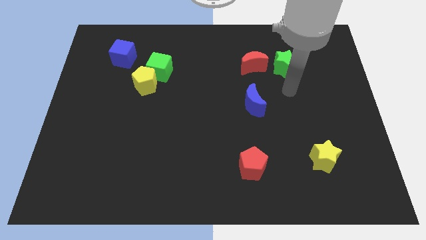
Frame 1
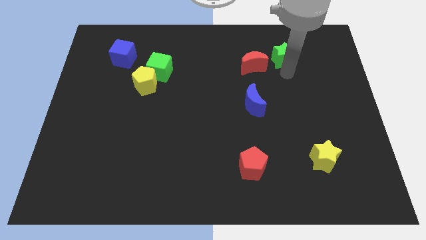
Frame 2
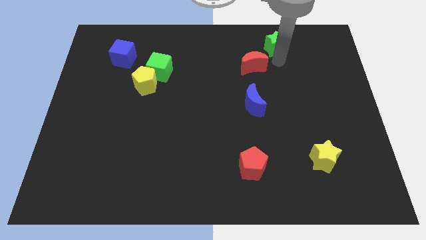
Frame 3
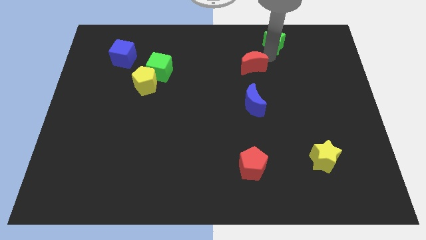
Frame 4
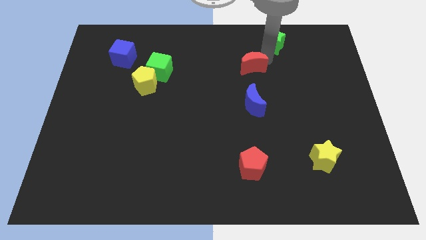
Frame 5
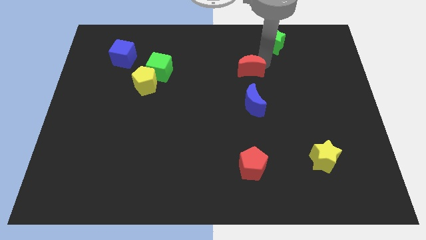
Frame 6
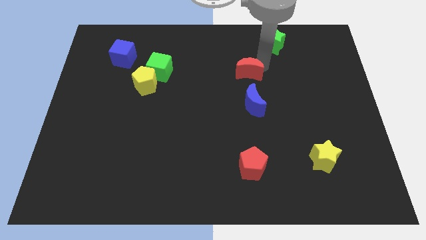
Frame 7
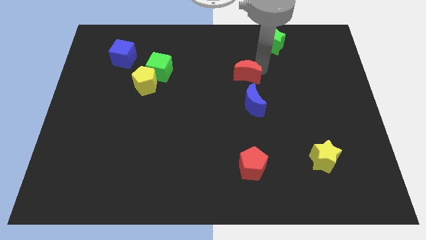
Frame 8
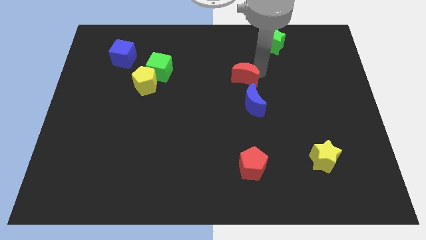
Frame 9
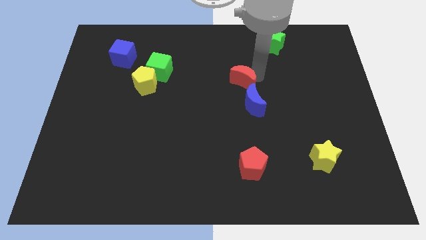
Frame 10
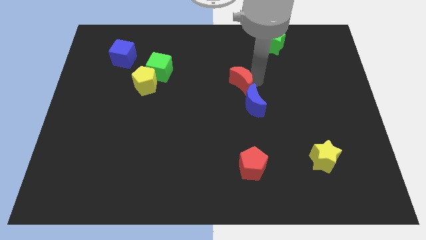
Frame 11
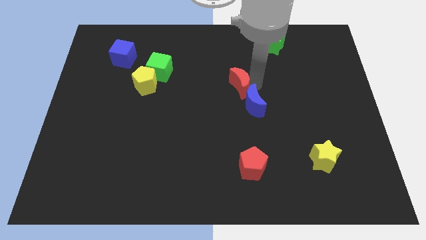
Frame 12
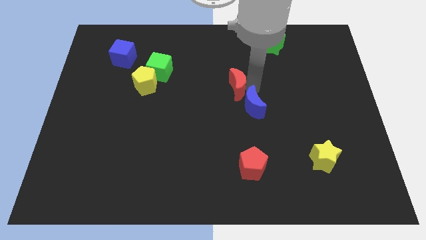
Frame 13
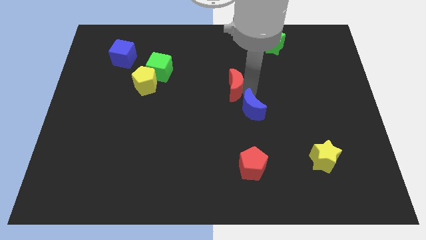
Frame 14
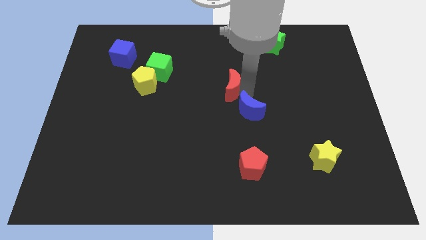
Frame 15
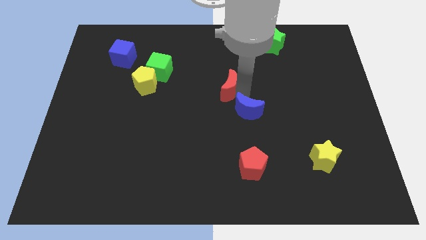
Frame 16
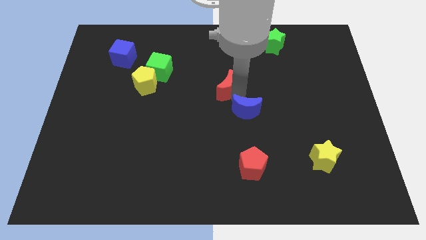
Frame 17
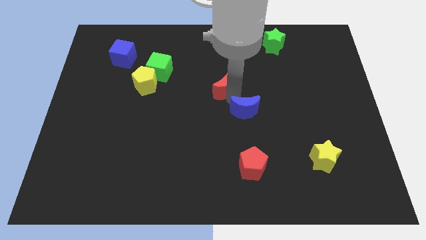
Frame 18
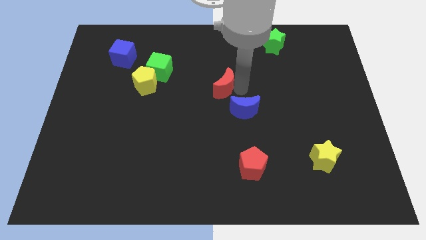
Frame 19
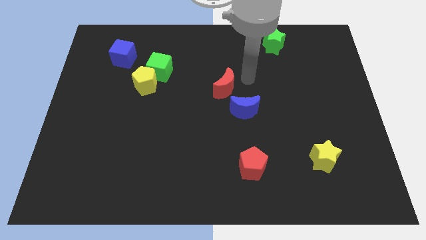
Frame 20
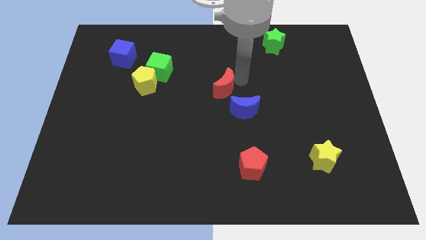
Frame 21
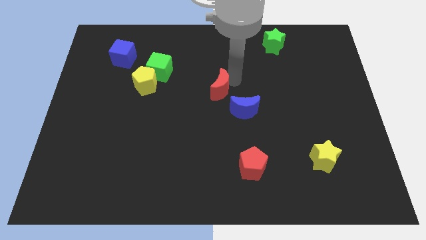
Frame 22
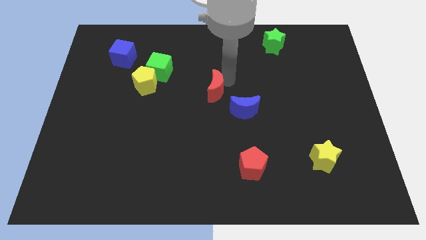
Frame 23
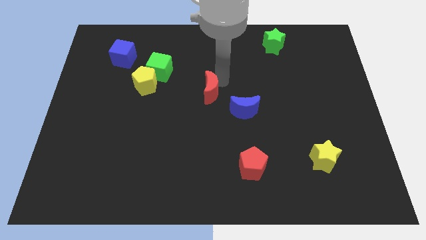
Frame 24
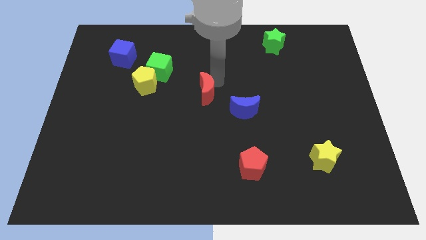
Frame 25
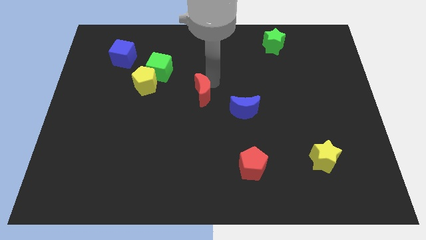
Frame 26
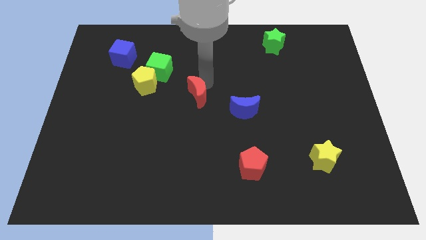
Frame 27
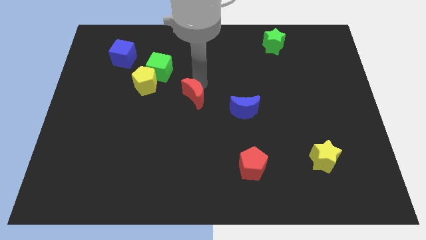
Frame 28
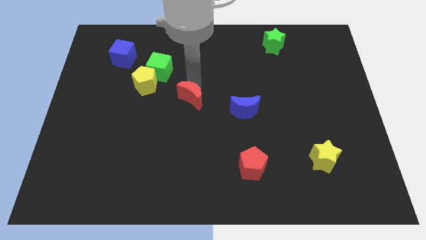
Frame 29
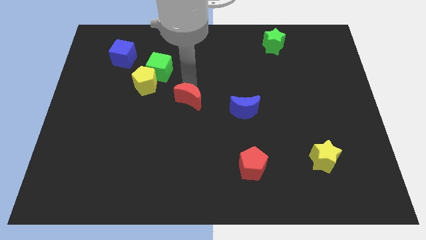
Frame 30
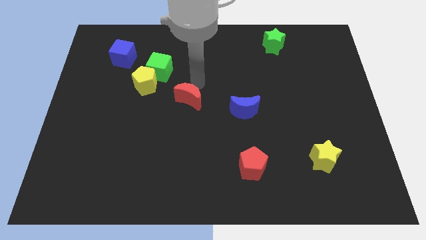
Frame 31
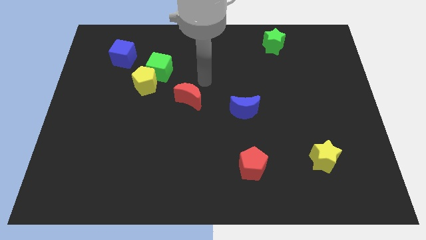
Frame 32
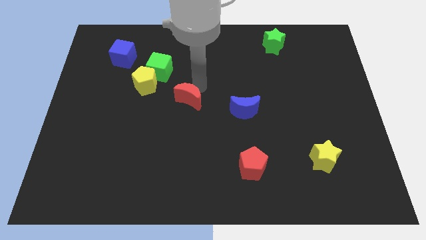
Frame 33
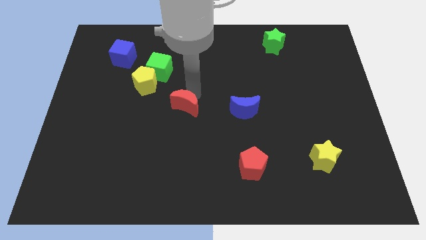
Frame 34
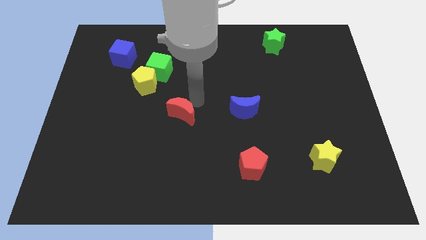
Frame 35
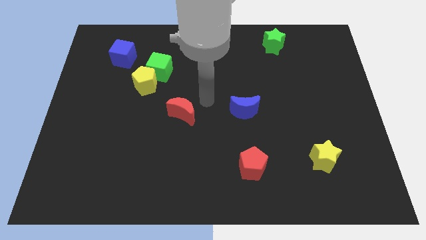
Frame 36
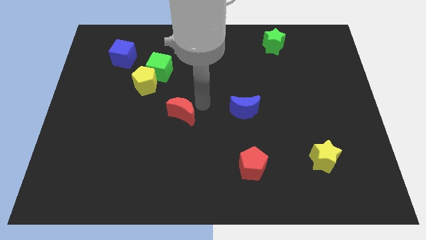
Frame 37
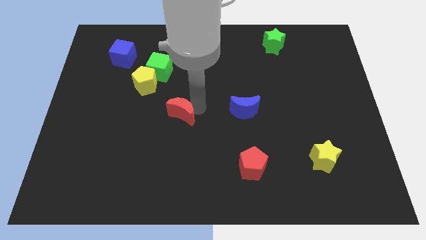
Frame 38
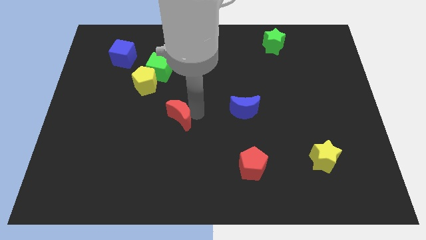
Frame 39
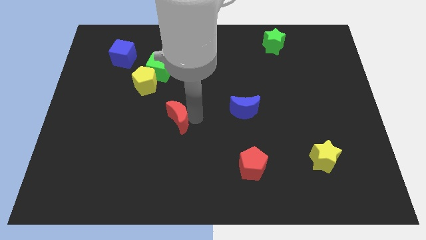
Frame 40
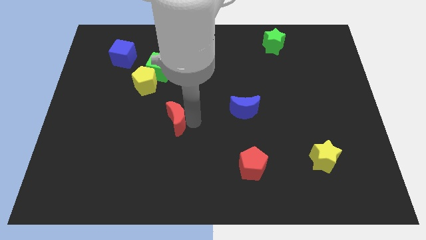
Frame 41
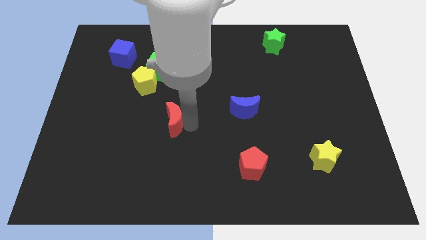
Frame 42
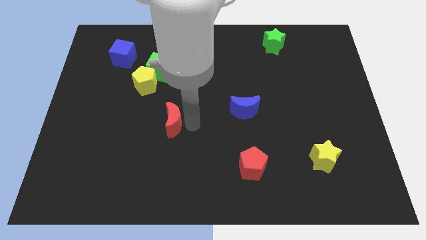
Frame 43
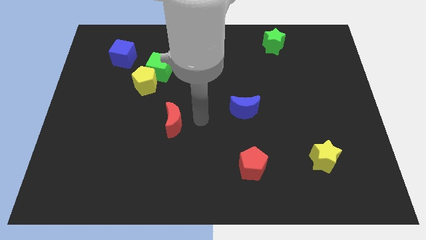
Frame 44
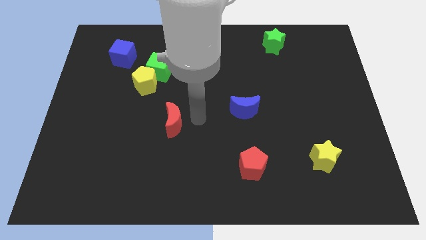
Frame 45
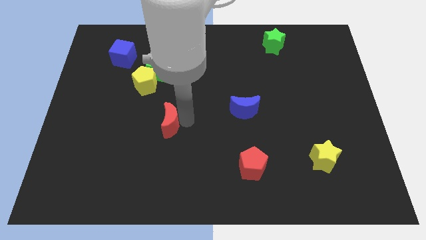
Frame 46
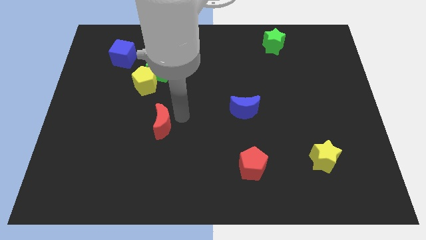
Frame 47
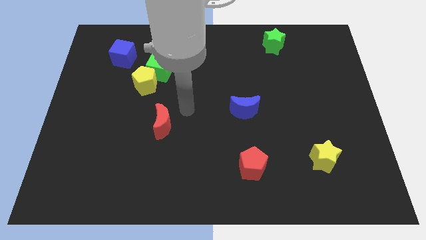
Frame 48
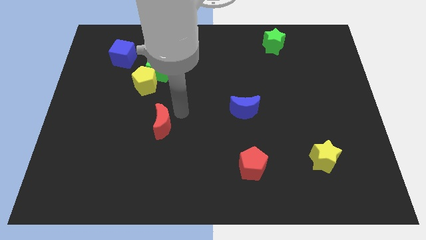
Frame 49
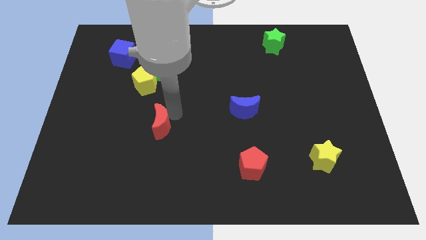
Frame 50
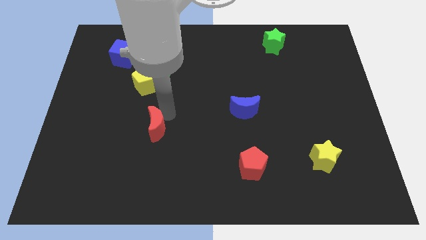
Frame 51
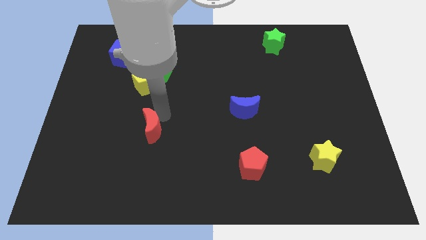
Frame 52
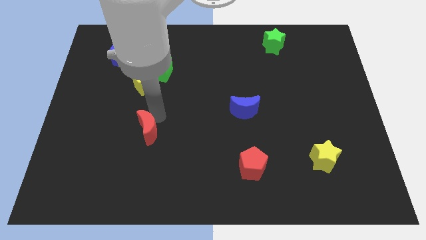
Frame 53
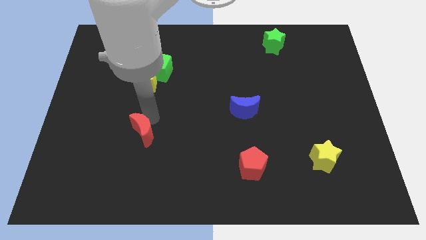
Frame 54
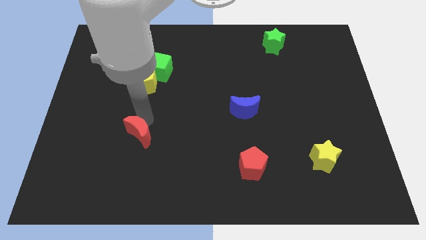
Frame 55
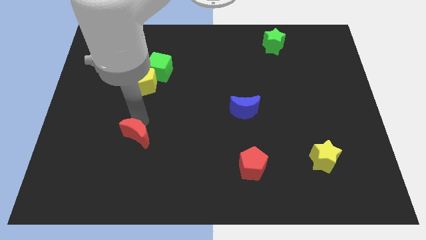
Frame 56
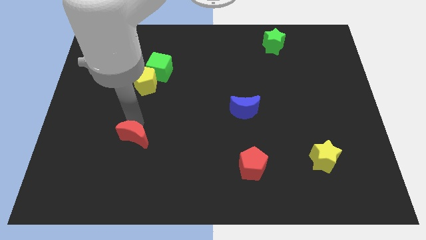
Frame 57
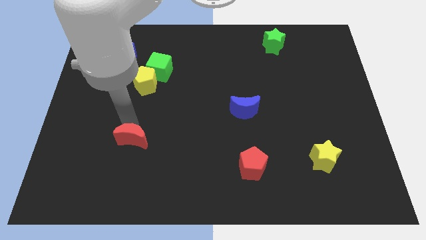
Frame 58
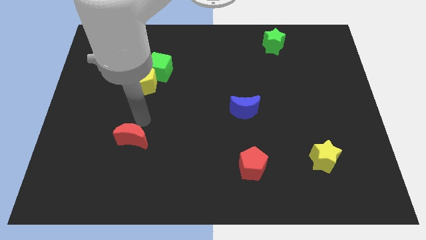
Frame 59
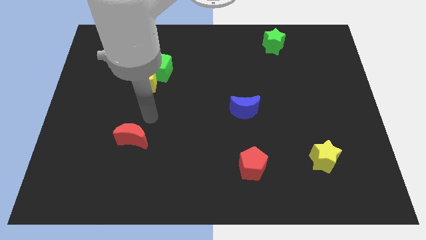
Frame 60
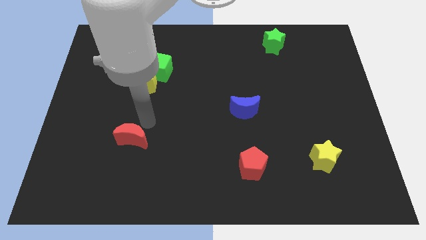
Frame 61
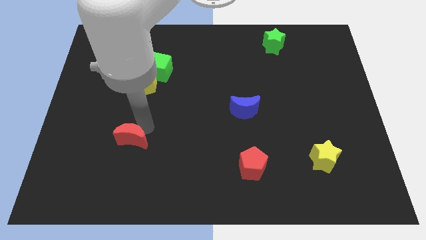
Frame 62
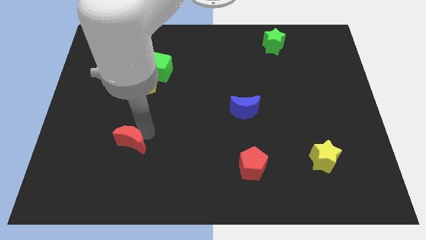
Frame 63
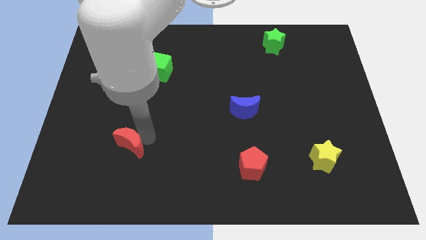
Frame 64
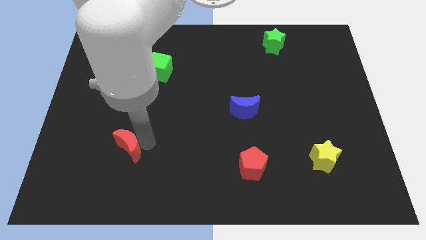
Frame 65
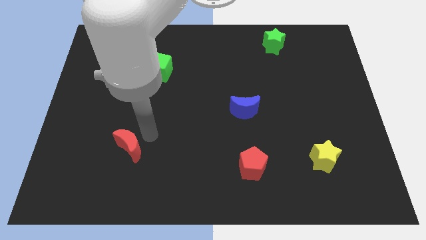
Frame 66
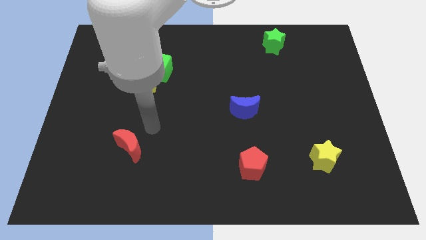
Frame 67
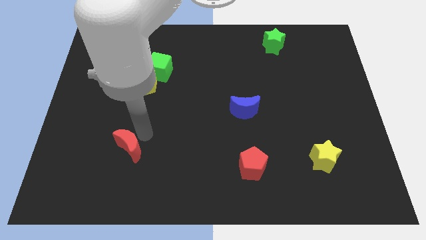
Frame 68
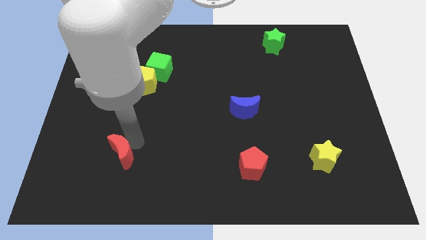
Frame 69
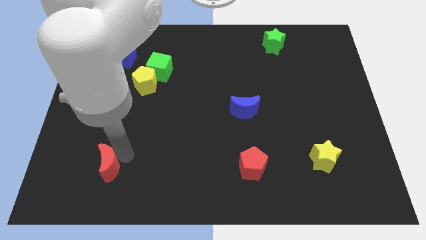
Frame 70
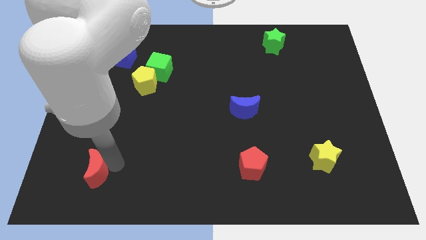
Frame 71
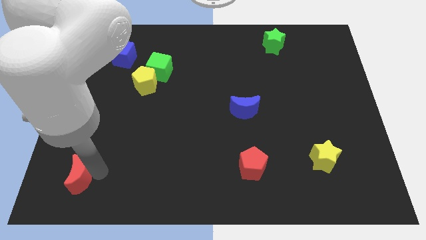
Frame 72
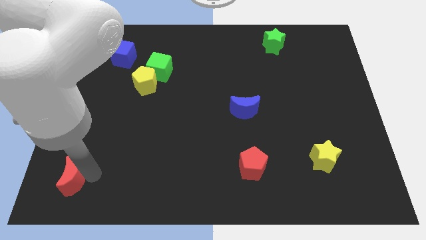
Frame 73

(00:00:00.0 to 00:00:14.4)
put the red moon to the bottom left corner
